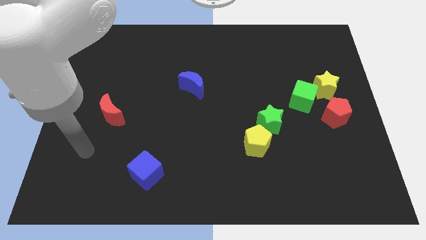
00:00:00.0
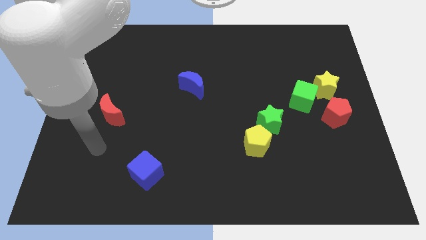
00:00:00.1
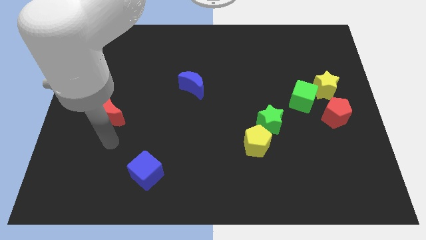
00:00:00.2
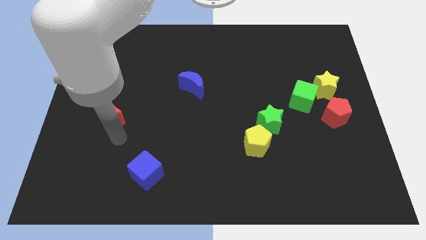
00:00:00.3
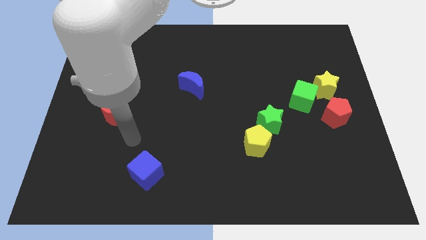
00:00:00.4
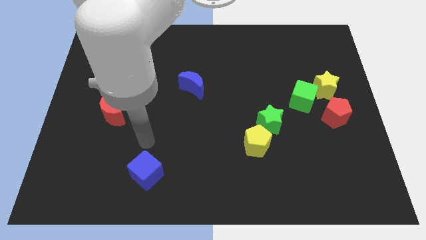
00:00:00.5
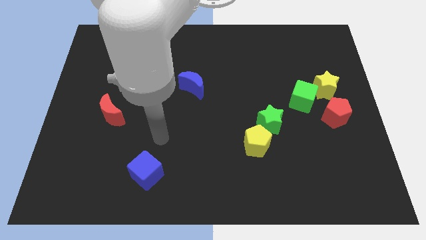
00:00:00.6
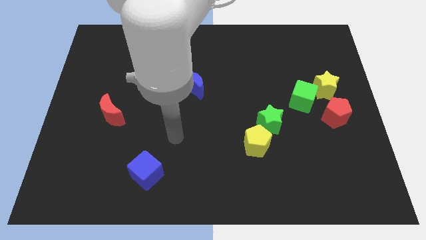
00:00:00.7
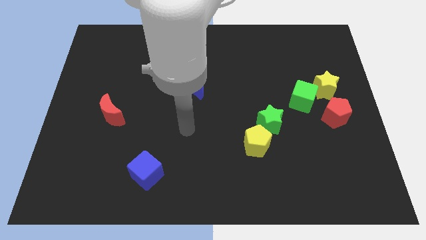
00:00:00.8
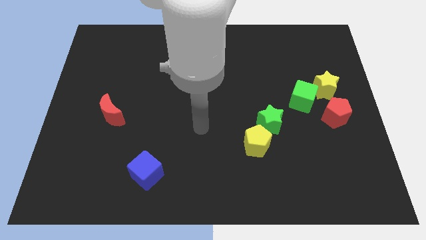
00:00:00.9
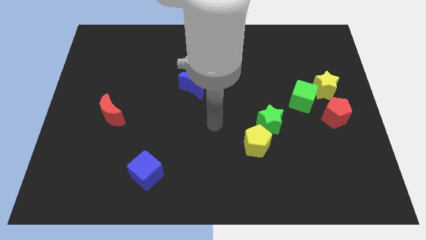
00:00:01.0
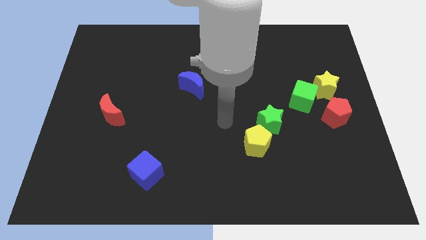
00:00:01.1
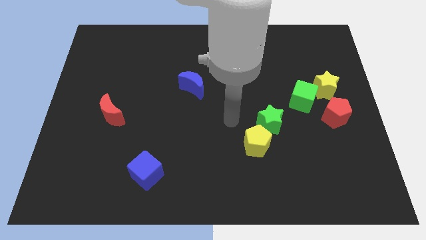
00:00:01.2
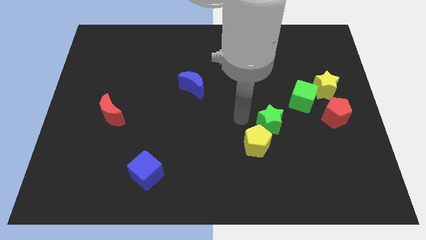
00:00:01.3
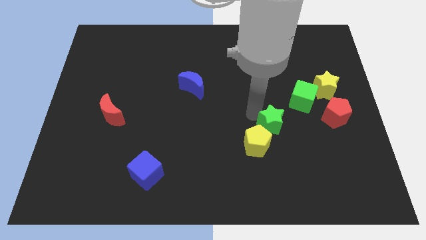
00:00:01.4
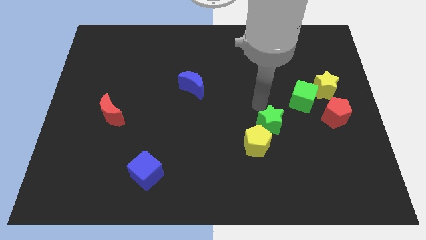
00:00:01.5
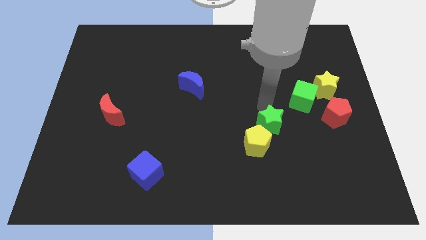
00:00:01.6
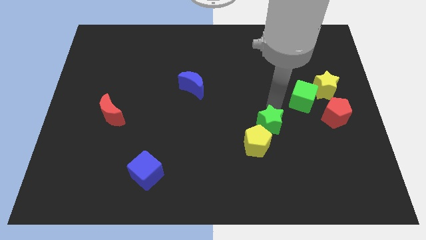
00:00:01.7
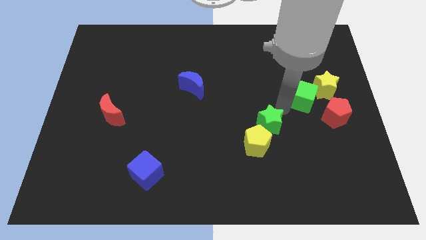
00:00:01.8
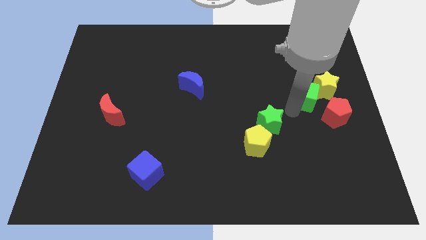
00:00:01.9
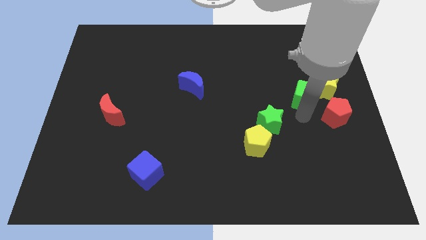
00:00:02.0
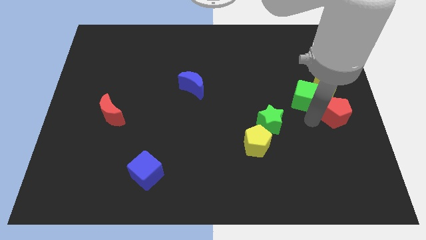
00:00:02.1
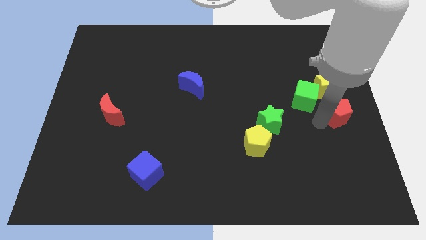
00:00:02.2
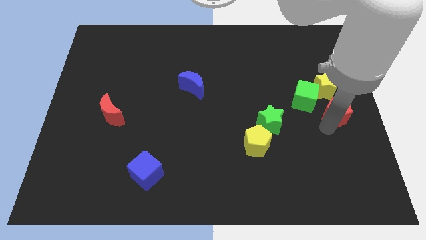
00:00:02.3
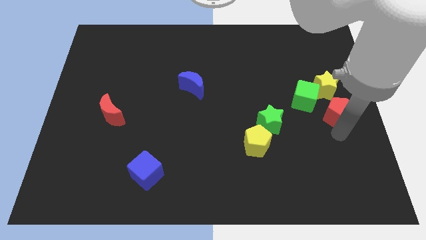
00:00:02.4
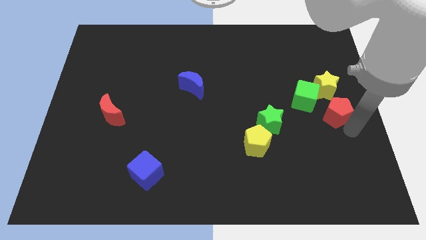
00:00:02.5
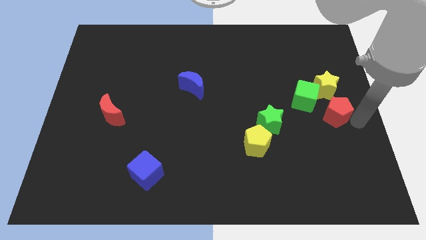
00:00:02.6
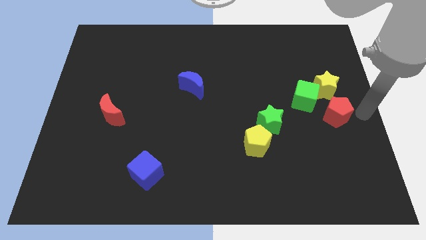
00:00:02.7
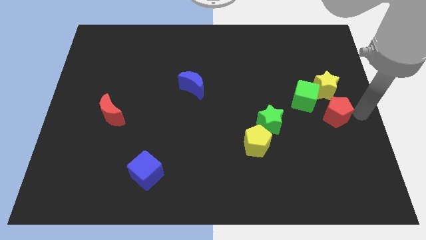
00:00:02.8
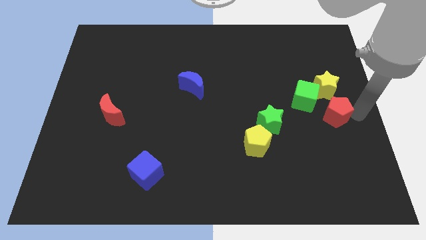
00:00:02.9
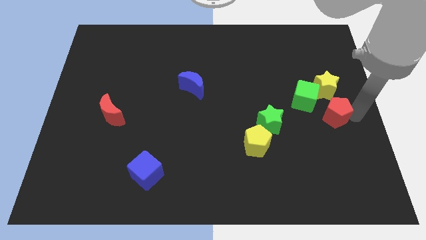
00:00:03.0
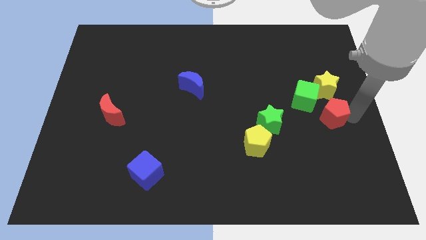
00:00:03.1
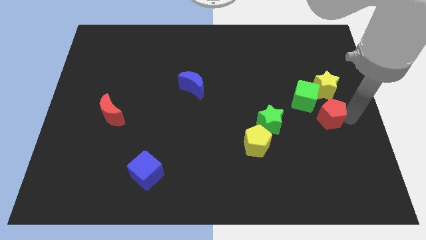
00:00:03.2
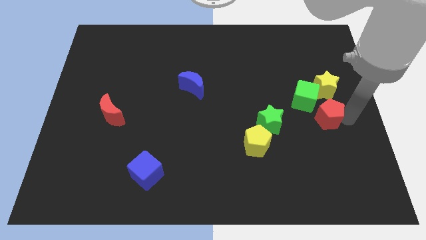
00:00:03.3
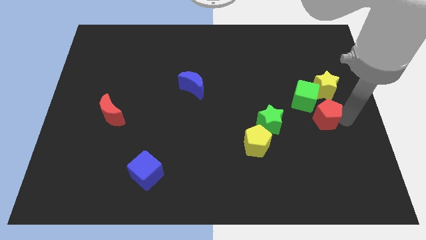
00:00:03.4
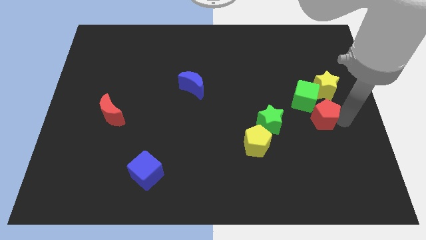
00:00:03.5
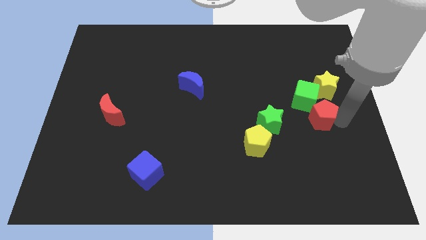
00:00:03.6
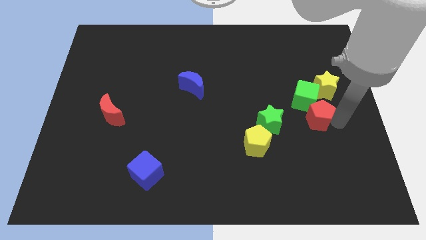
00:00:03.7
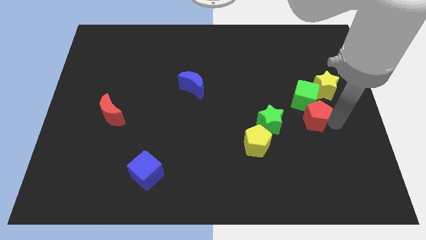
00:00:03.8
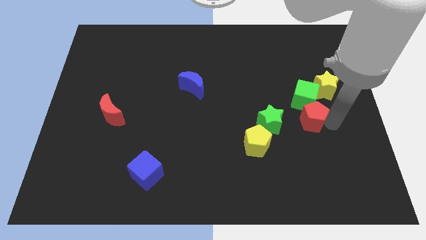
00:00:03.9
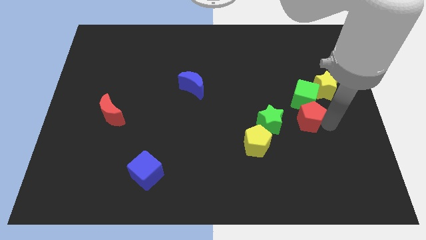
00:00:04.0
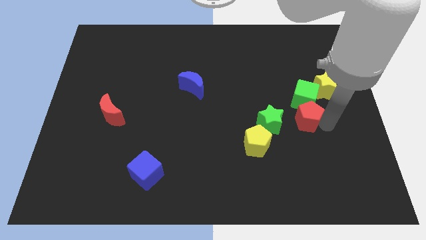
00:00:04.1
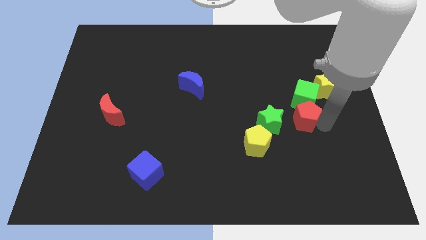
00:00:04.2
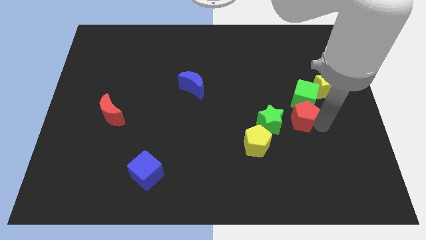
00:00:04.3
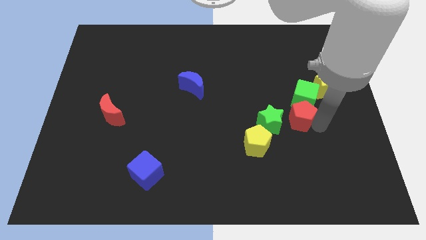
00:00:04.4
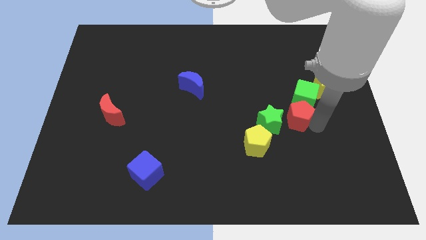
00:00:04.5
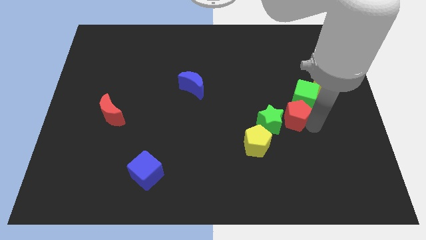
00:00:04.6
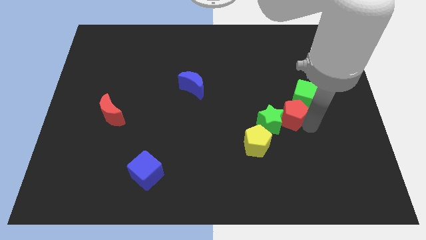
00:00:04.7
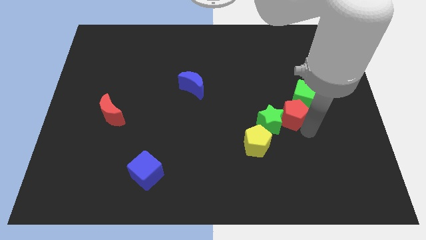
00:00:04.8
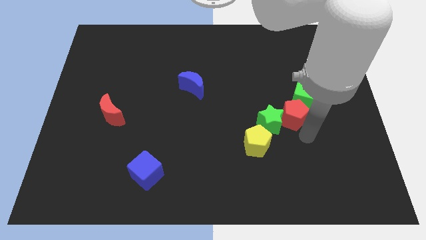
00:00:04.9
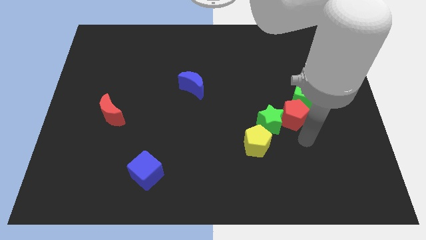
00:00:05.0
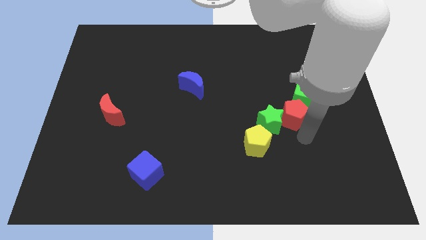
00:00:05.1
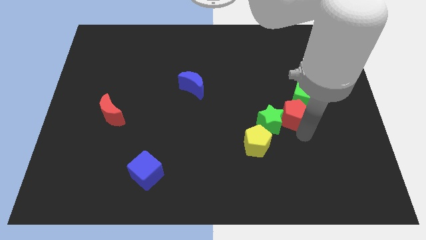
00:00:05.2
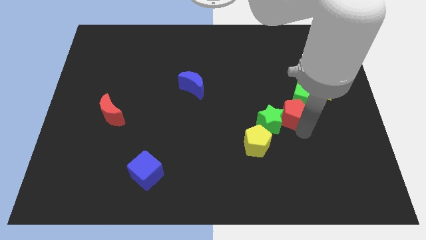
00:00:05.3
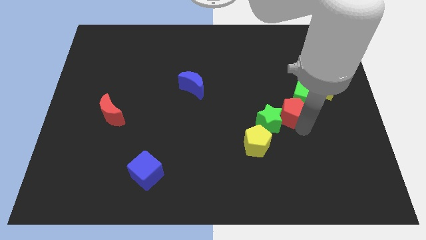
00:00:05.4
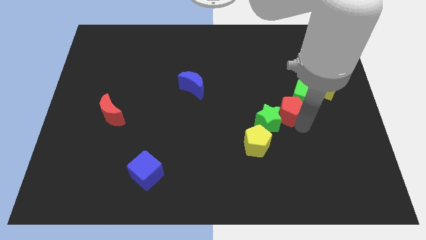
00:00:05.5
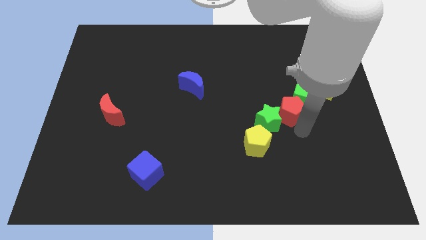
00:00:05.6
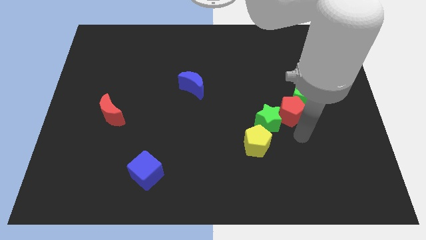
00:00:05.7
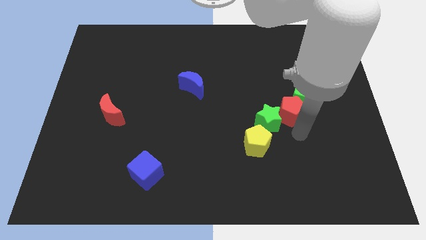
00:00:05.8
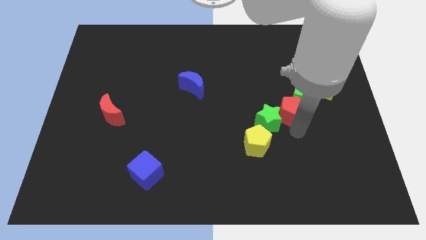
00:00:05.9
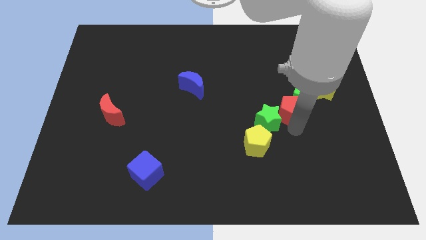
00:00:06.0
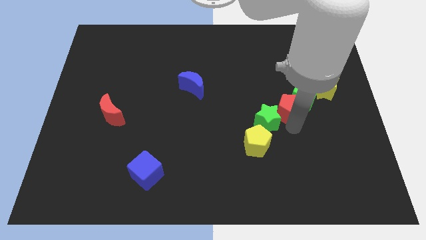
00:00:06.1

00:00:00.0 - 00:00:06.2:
slightly slide the red pentagon upwards and left

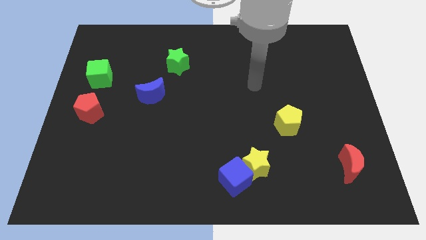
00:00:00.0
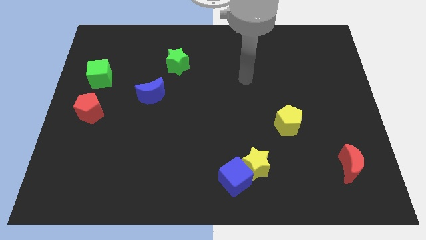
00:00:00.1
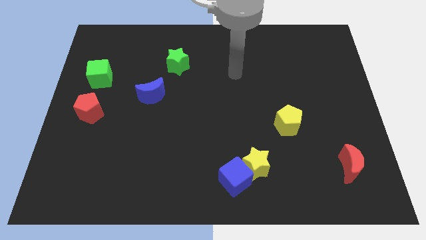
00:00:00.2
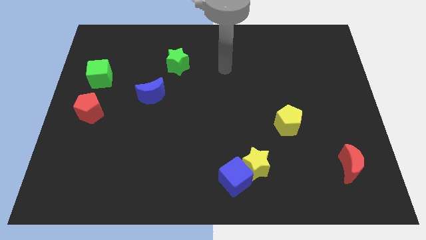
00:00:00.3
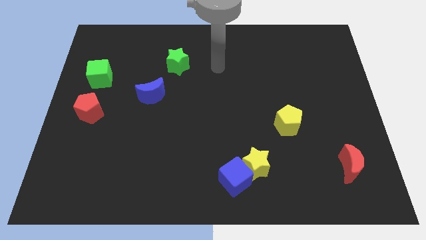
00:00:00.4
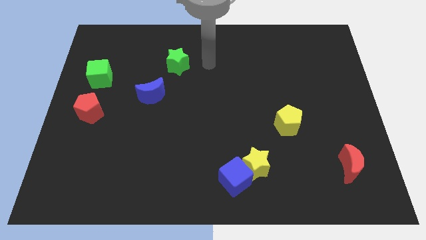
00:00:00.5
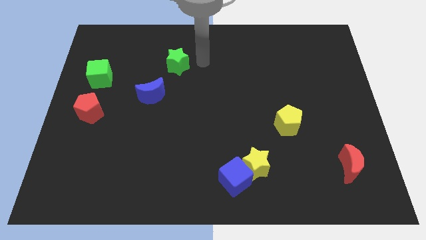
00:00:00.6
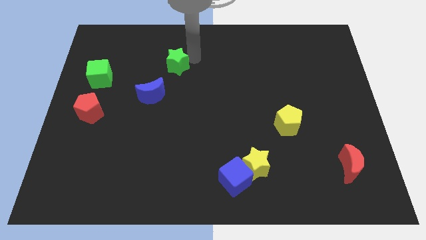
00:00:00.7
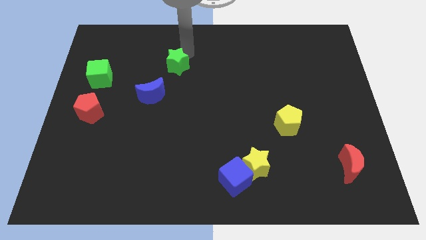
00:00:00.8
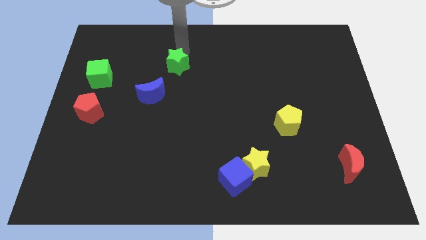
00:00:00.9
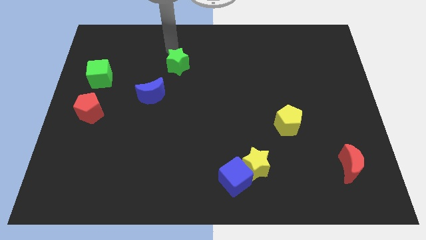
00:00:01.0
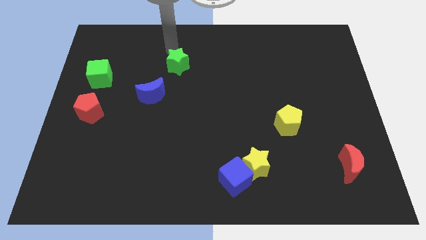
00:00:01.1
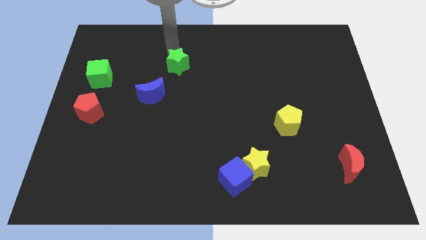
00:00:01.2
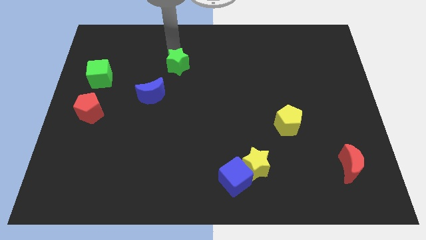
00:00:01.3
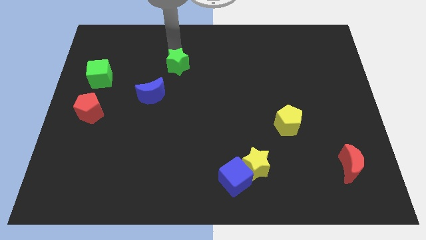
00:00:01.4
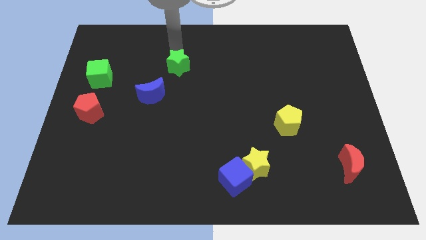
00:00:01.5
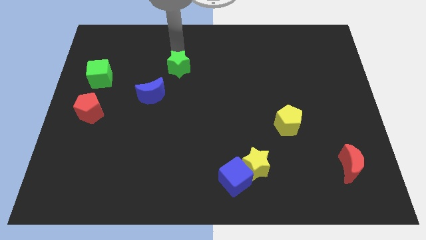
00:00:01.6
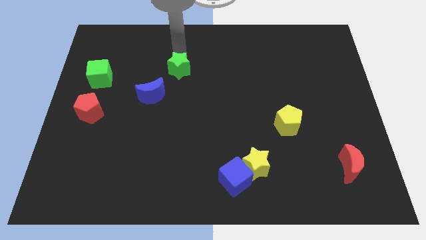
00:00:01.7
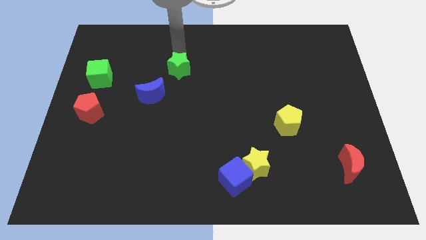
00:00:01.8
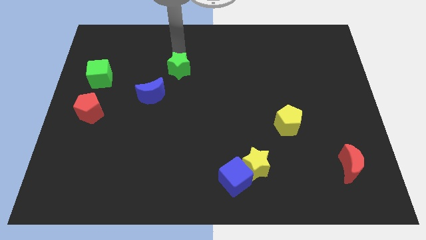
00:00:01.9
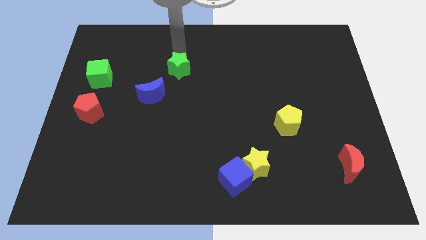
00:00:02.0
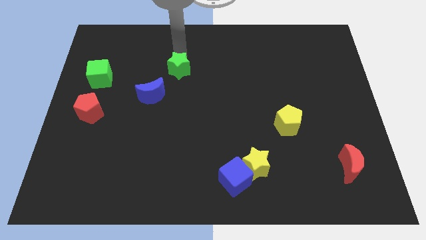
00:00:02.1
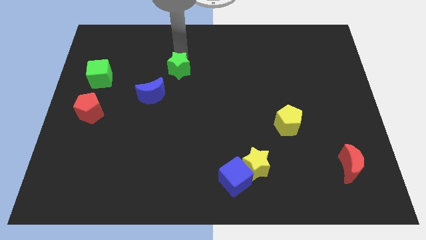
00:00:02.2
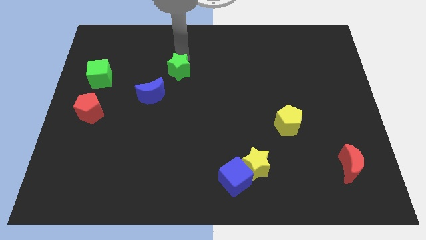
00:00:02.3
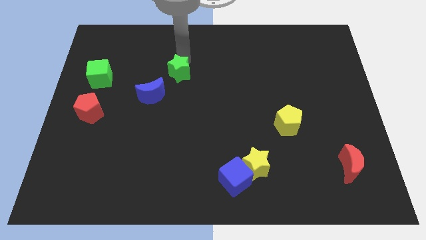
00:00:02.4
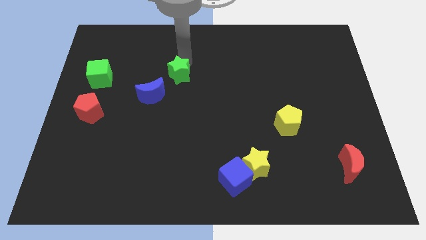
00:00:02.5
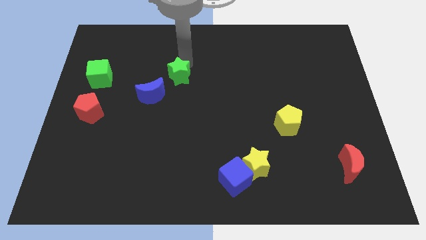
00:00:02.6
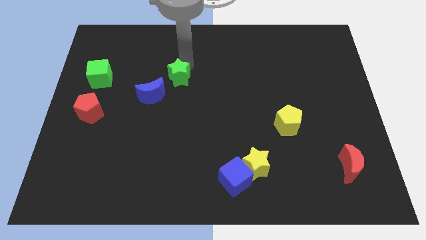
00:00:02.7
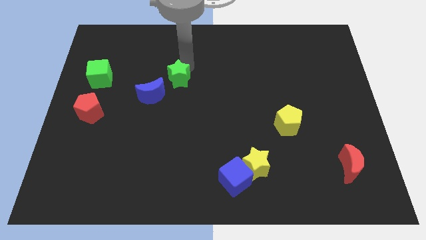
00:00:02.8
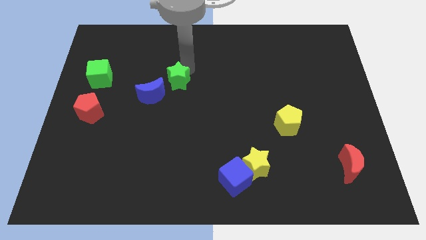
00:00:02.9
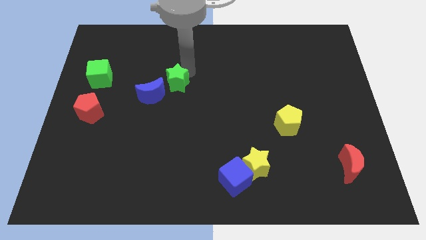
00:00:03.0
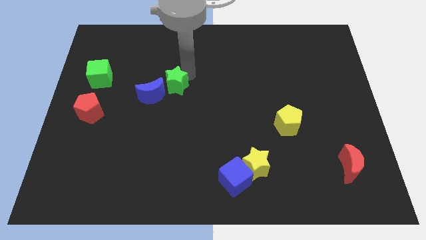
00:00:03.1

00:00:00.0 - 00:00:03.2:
slightly move the green star downwards
